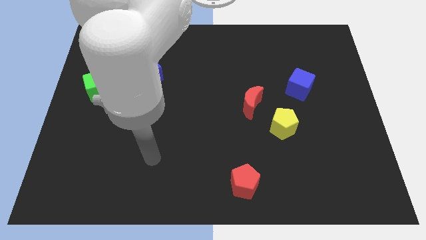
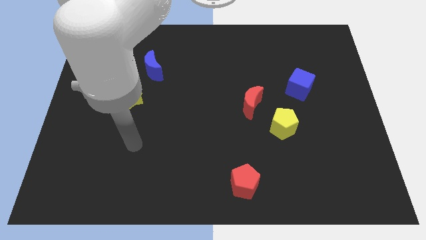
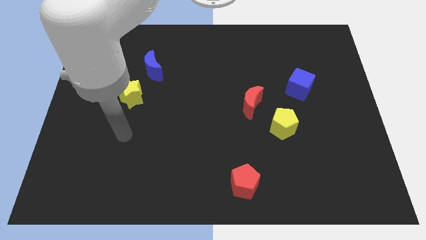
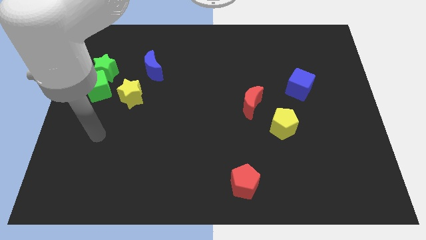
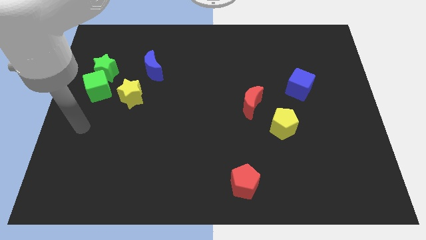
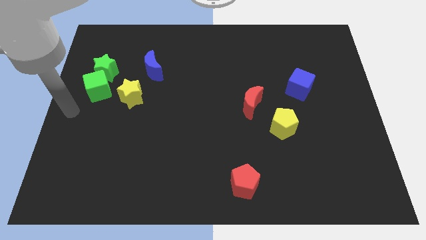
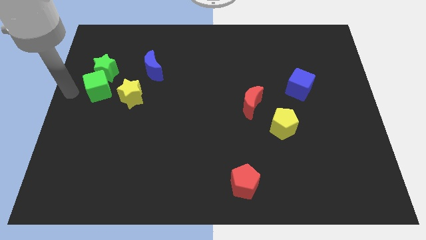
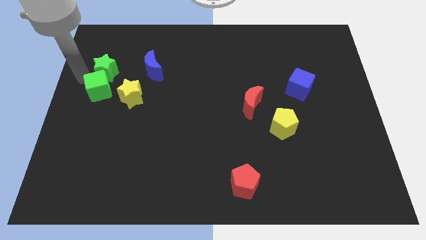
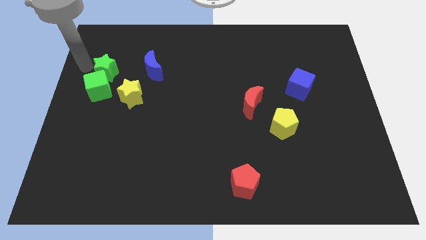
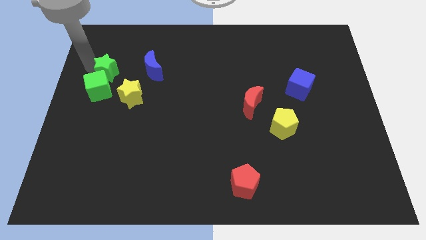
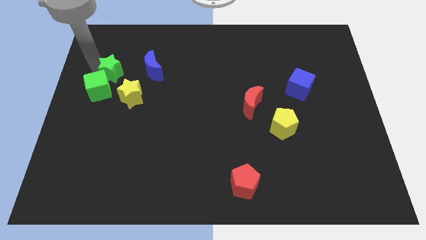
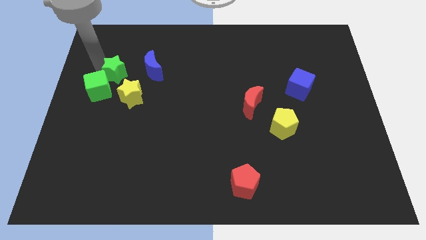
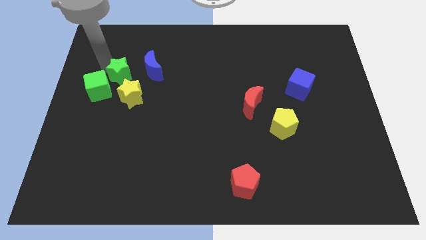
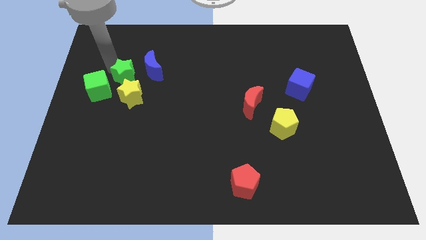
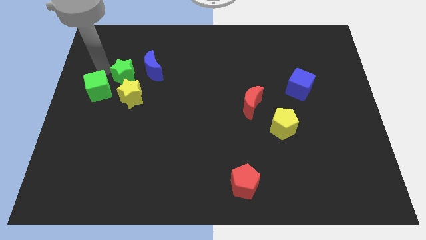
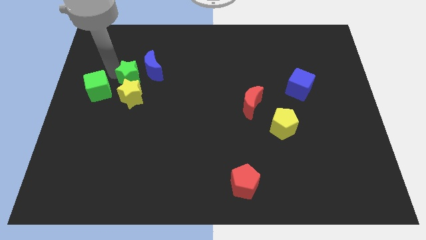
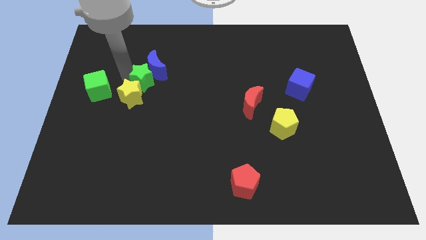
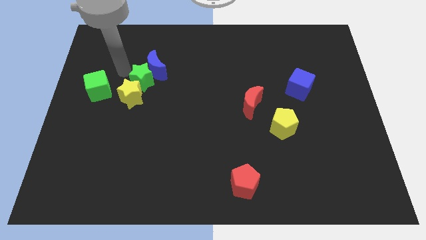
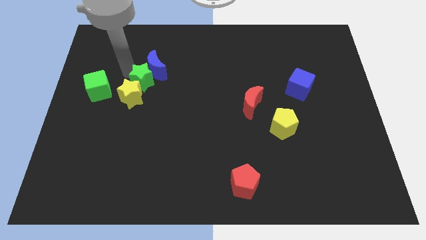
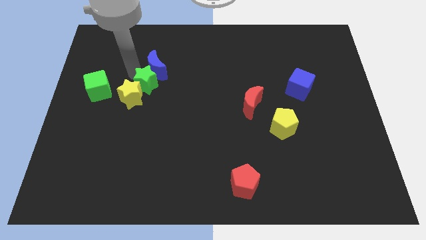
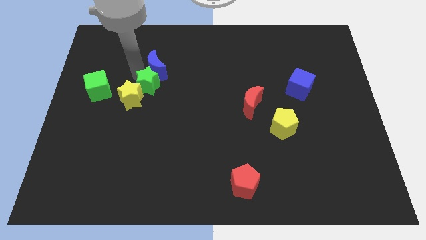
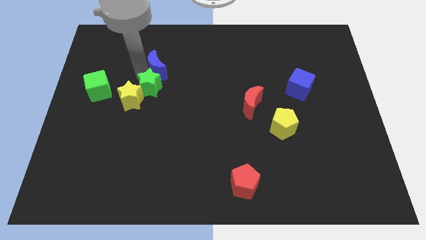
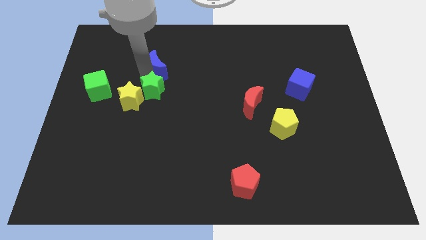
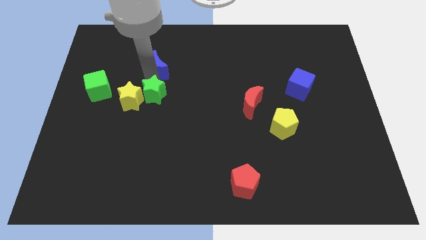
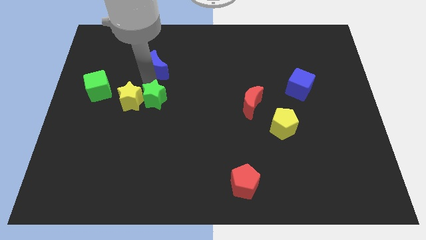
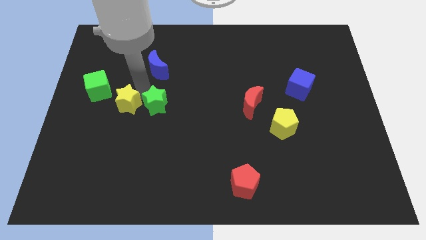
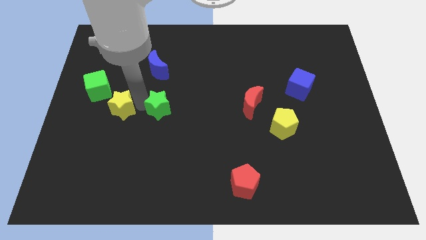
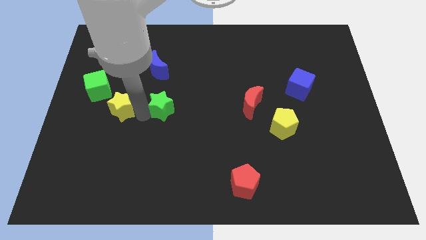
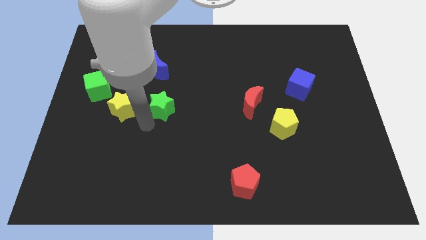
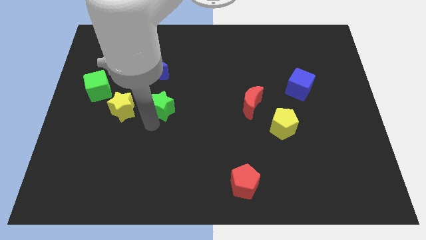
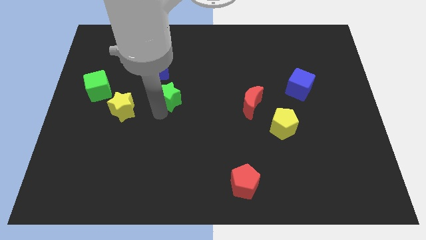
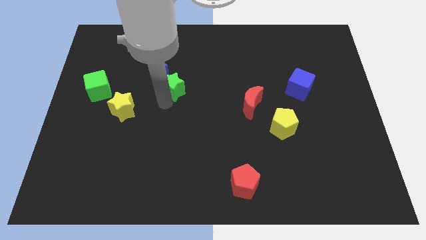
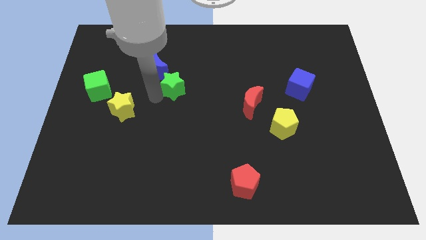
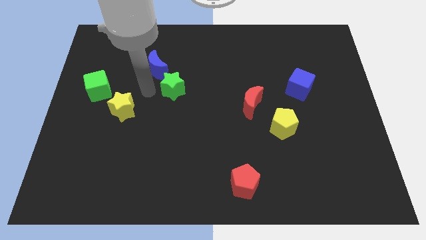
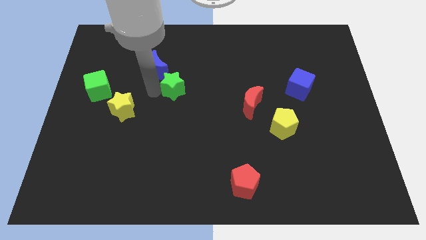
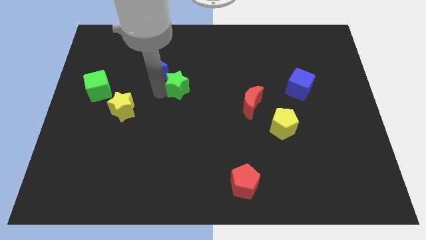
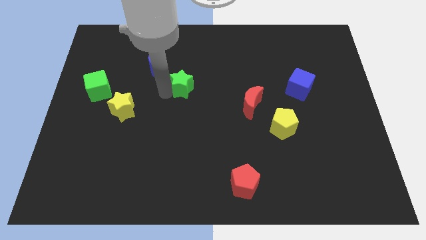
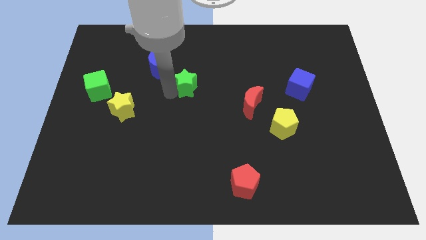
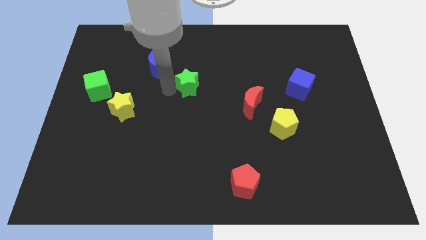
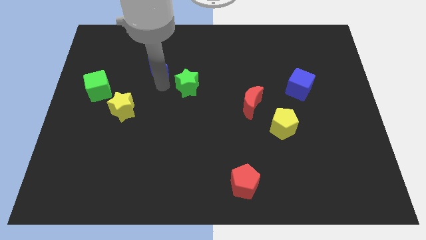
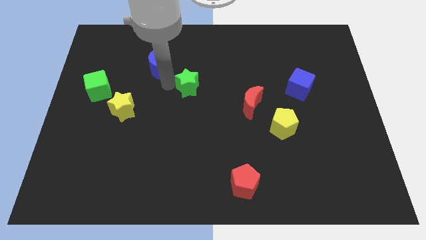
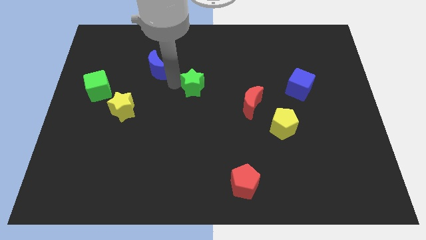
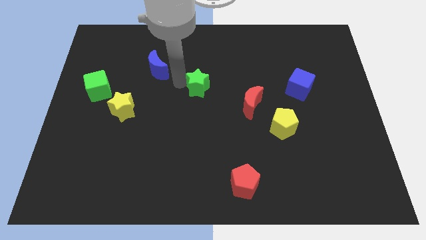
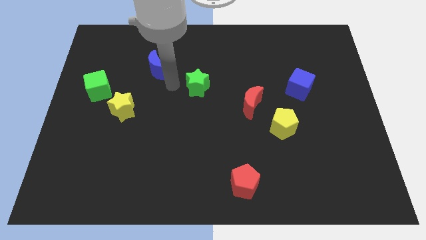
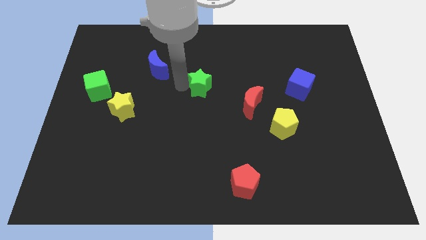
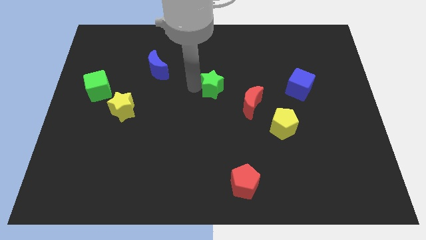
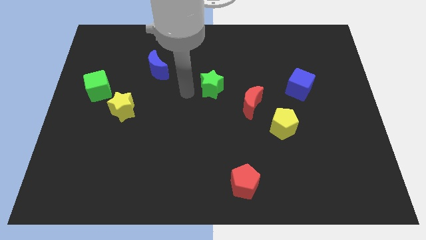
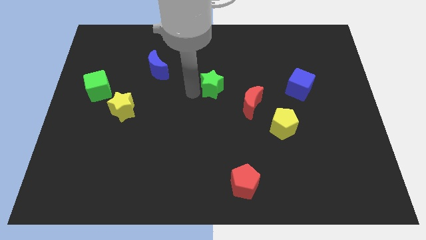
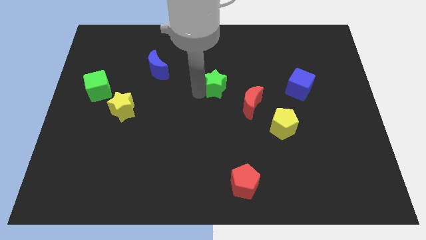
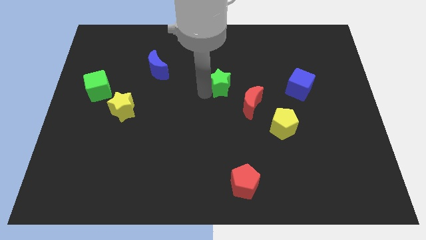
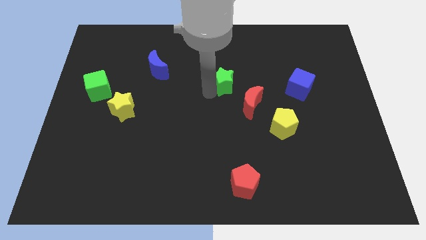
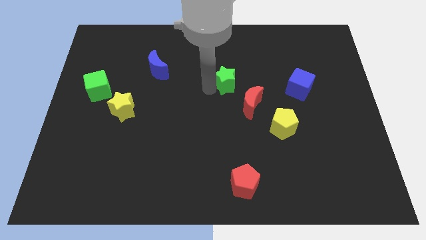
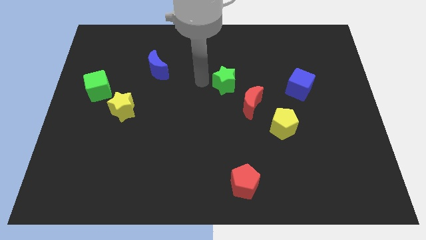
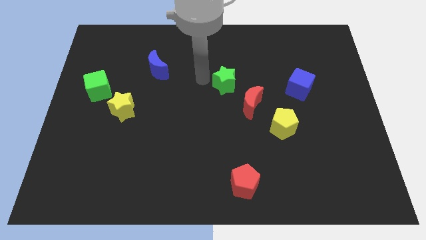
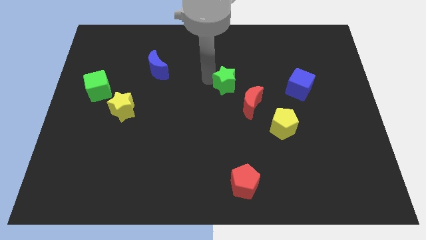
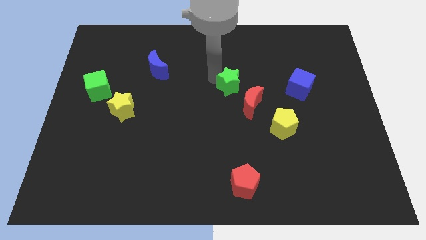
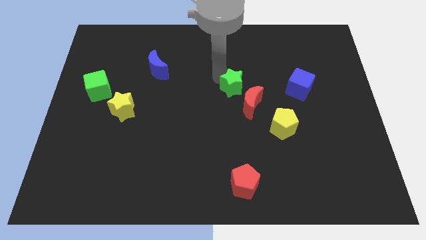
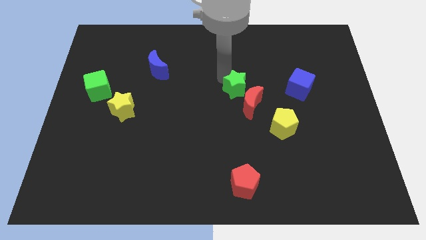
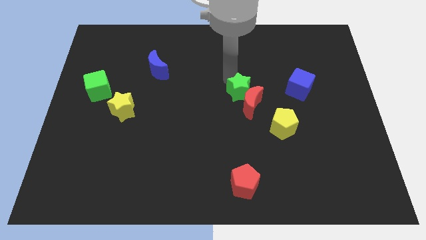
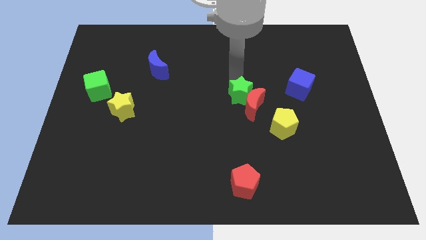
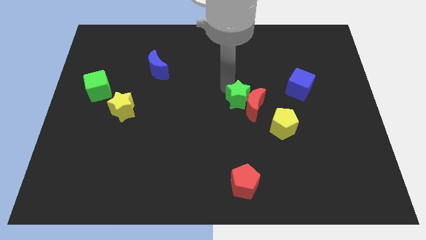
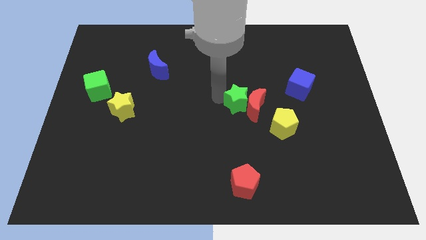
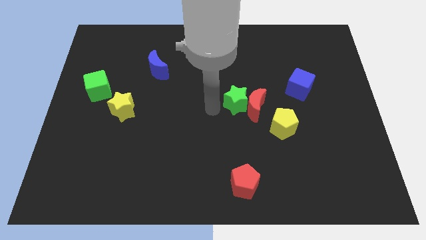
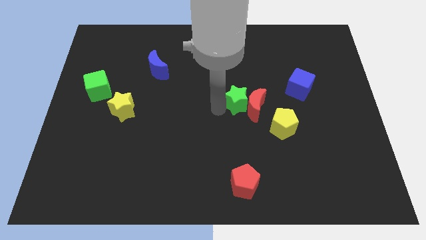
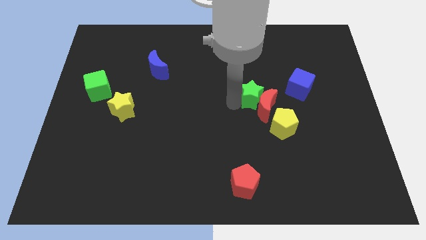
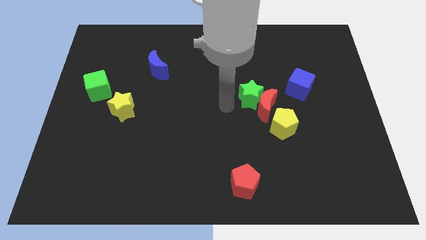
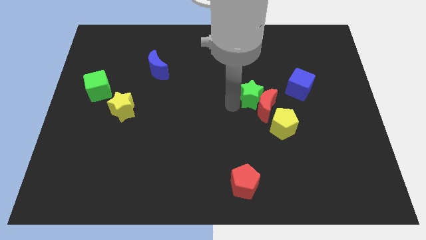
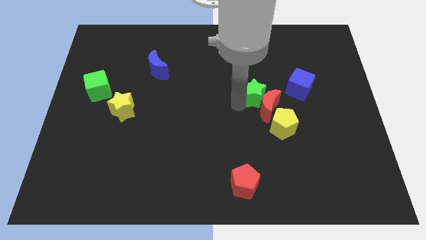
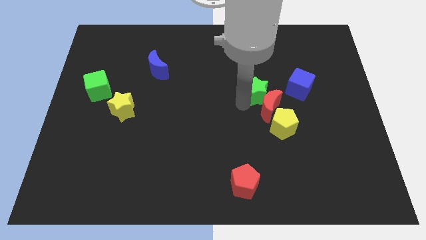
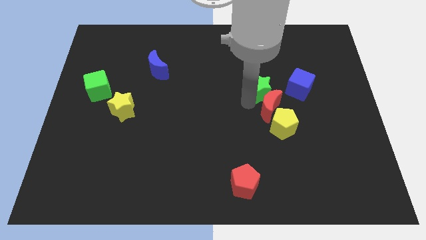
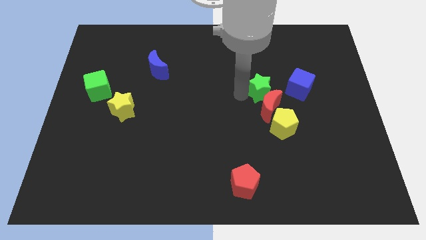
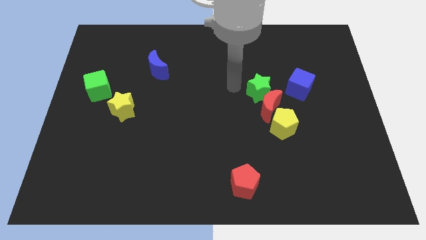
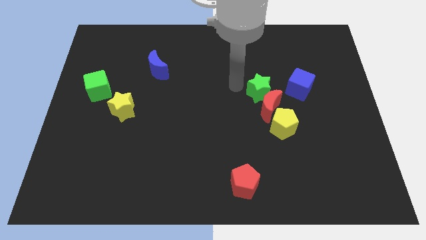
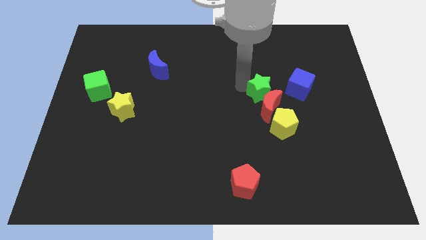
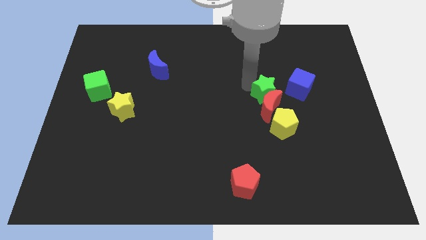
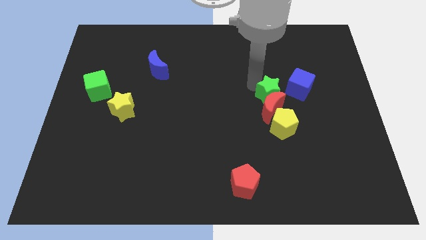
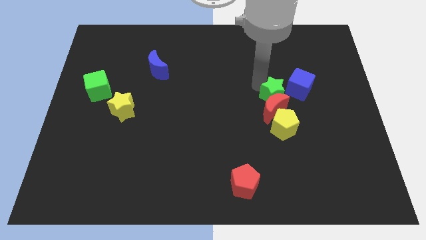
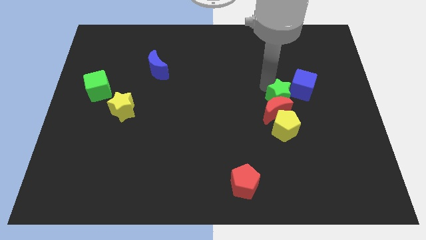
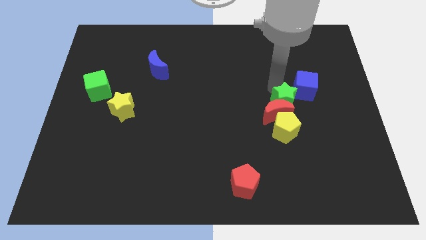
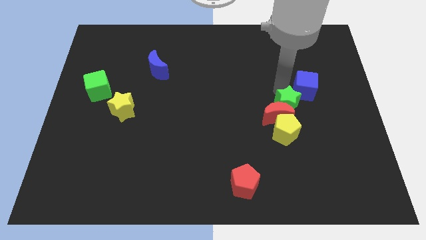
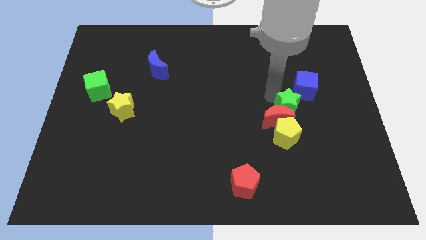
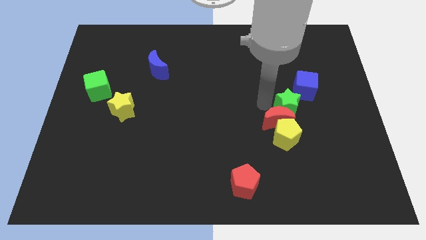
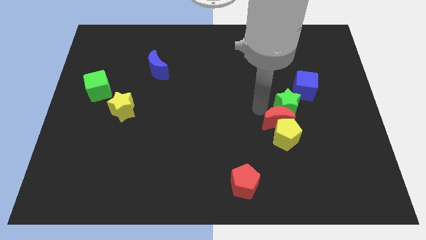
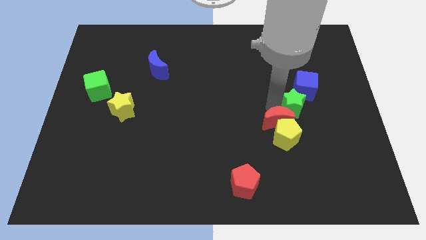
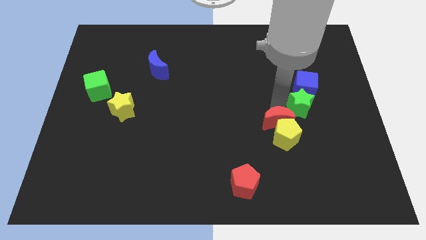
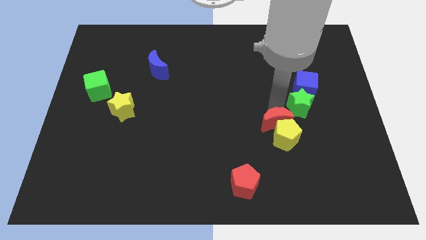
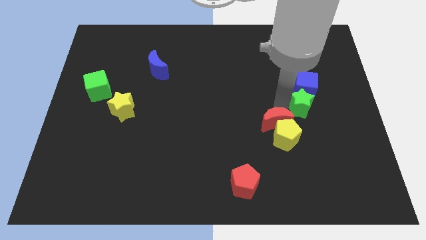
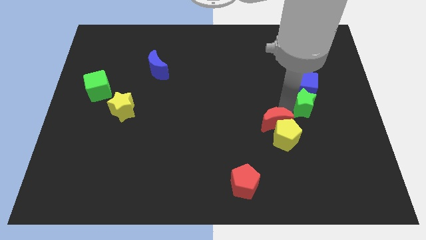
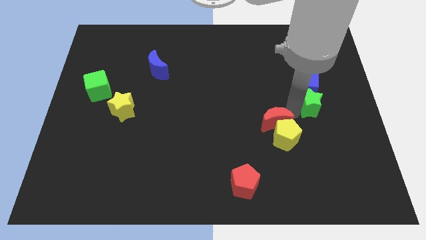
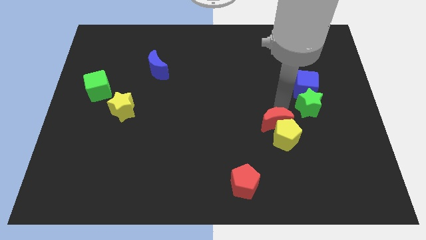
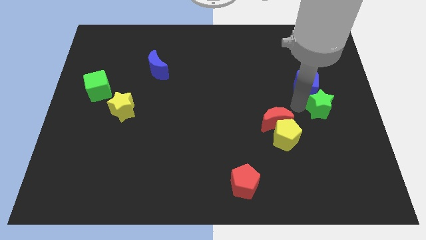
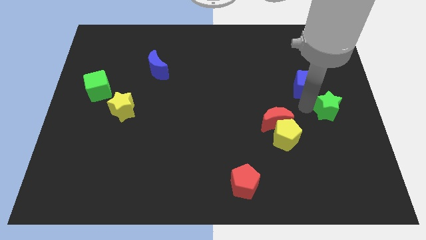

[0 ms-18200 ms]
slide the green star to the right side
